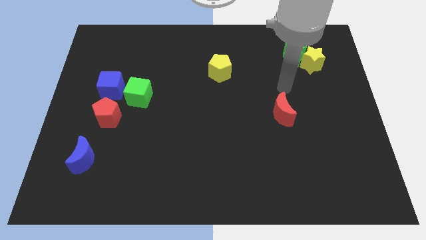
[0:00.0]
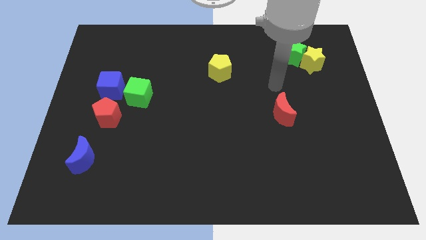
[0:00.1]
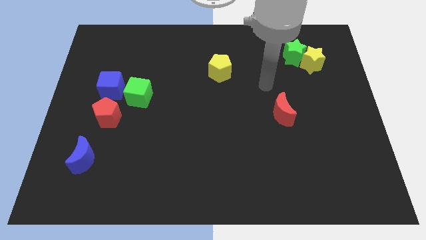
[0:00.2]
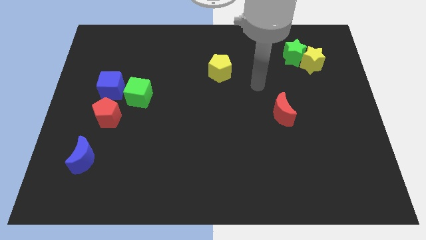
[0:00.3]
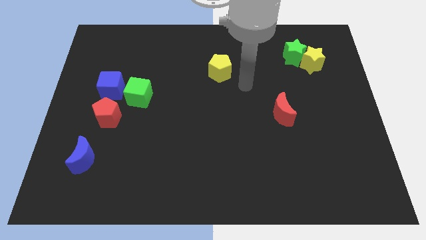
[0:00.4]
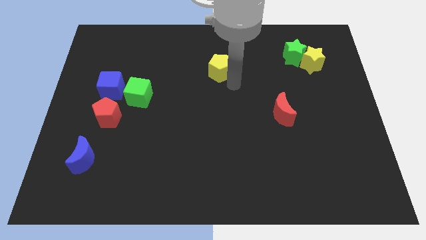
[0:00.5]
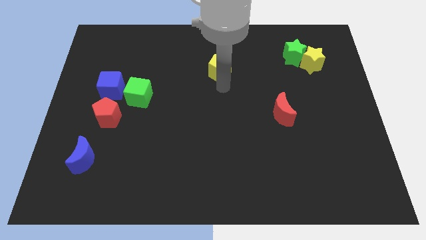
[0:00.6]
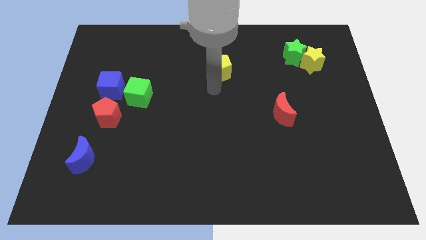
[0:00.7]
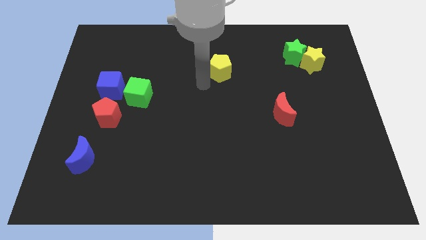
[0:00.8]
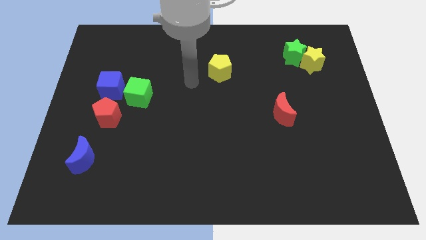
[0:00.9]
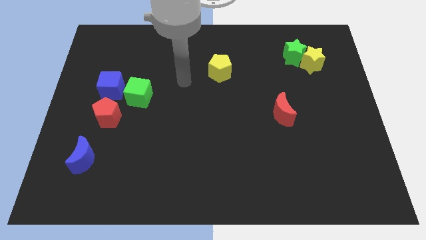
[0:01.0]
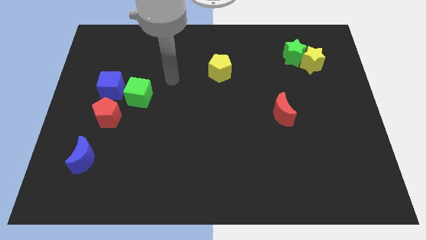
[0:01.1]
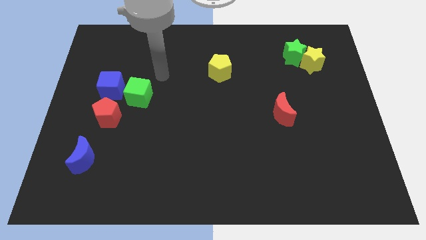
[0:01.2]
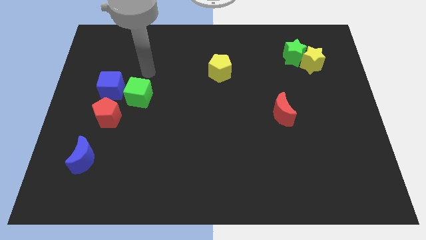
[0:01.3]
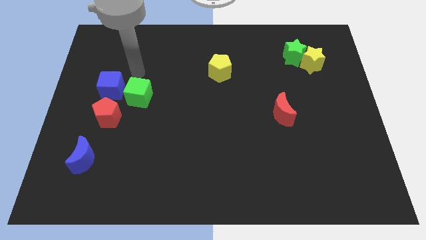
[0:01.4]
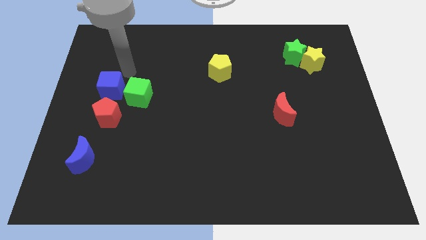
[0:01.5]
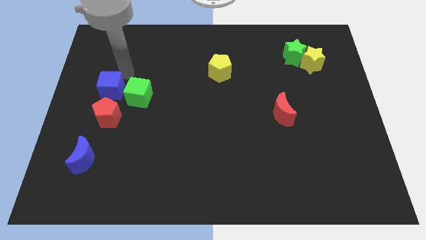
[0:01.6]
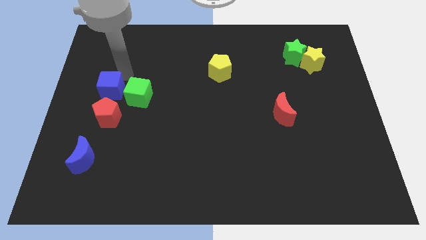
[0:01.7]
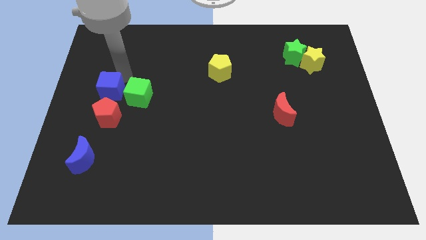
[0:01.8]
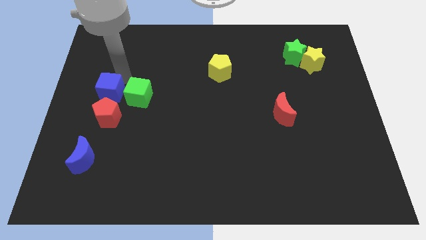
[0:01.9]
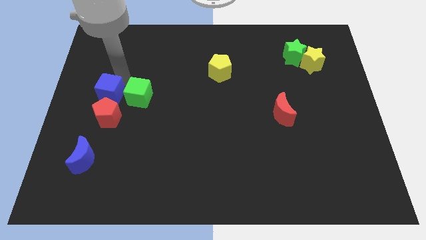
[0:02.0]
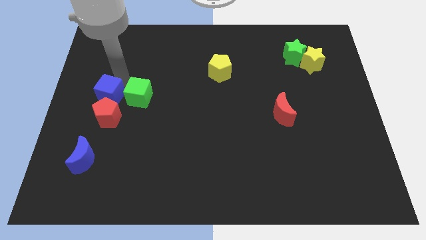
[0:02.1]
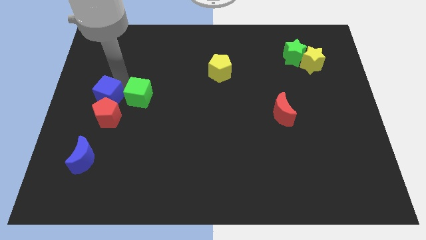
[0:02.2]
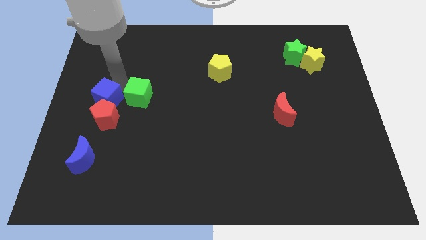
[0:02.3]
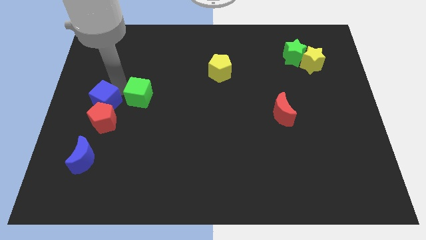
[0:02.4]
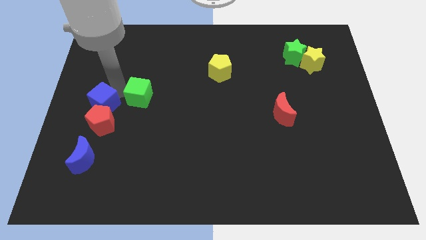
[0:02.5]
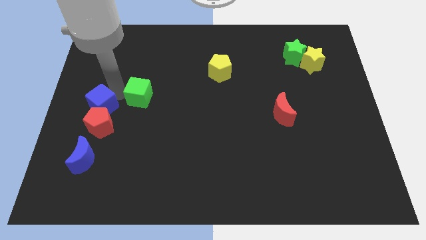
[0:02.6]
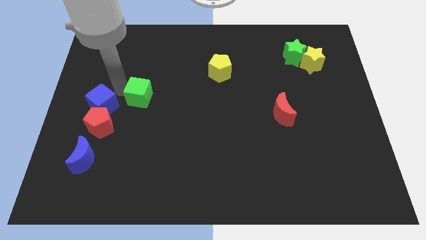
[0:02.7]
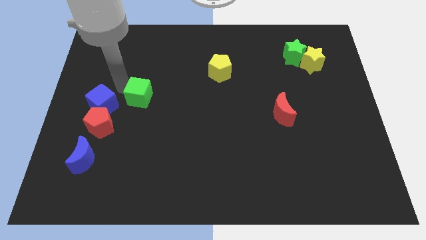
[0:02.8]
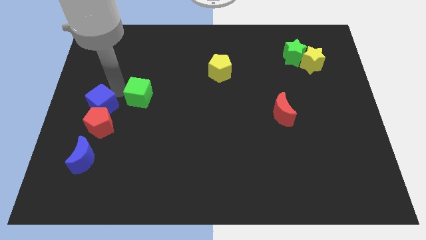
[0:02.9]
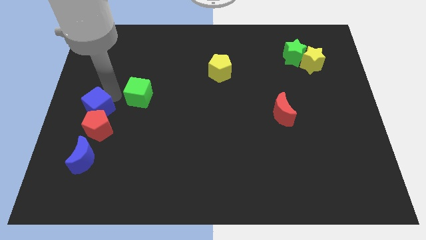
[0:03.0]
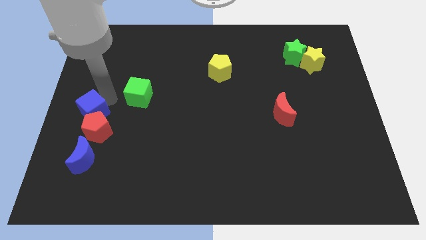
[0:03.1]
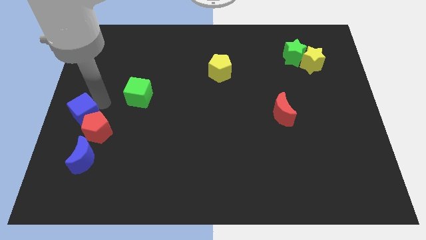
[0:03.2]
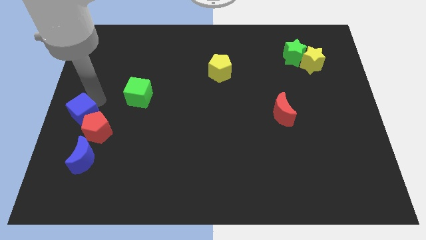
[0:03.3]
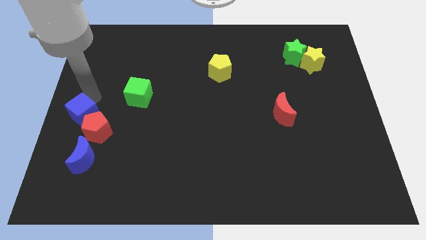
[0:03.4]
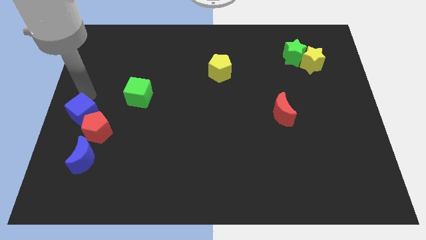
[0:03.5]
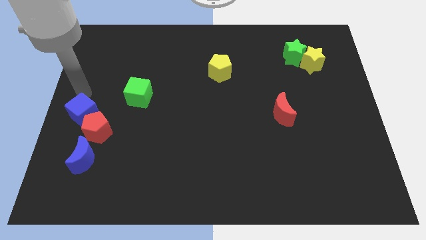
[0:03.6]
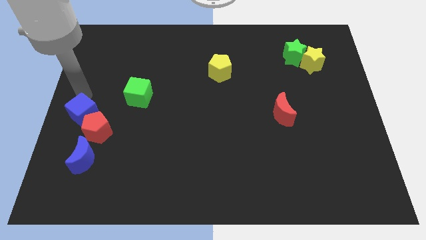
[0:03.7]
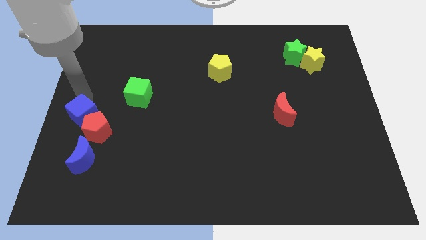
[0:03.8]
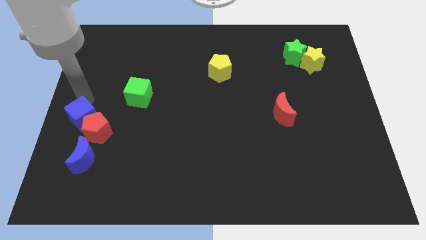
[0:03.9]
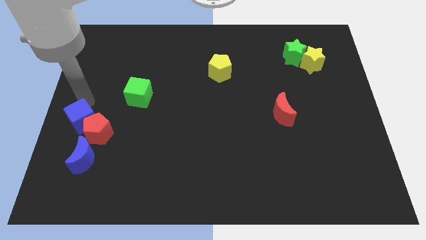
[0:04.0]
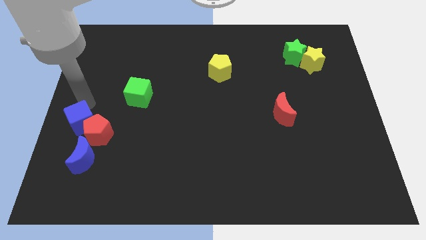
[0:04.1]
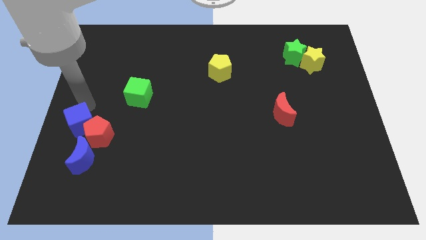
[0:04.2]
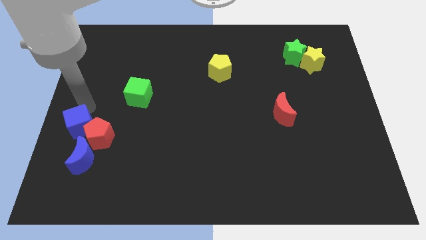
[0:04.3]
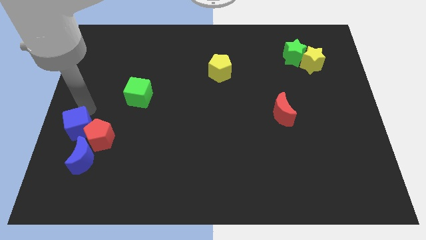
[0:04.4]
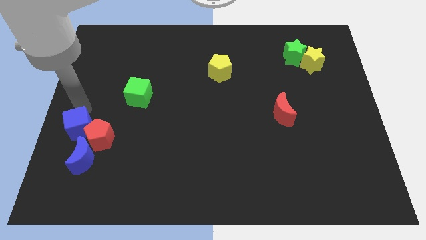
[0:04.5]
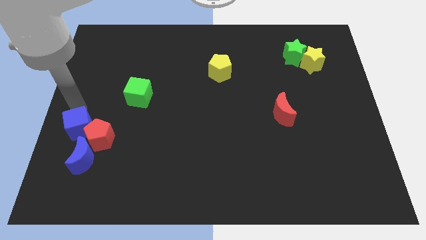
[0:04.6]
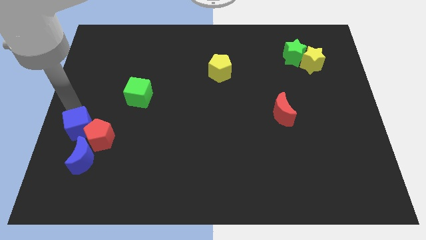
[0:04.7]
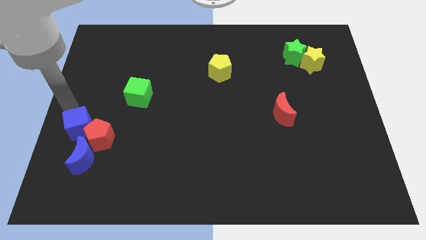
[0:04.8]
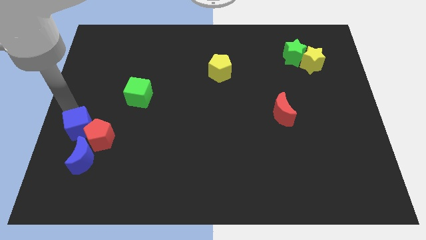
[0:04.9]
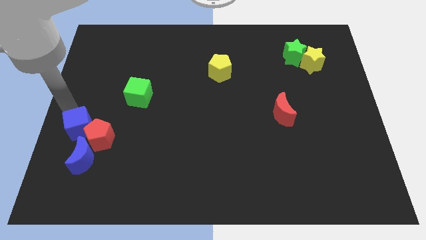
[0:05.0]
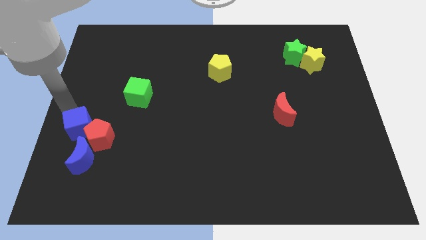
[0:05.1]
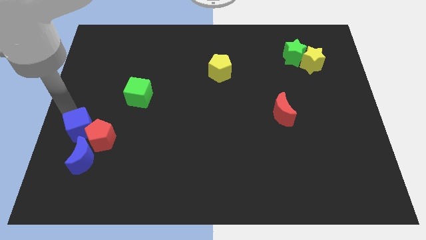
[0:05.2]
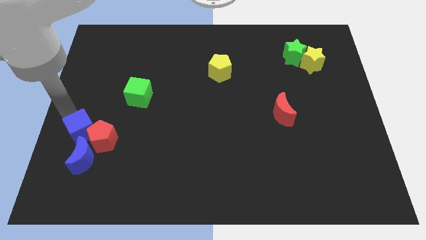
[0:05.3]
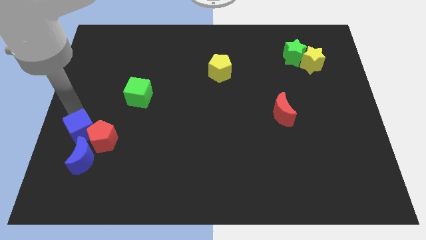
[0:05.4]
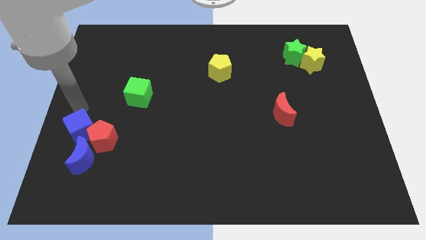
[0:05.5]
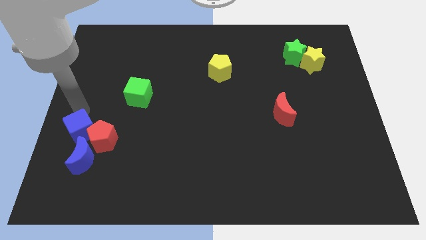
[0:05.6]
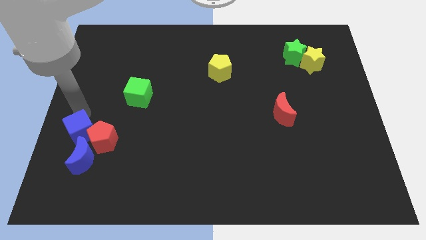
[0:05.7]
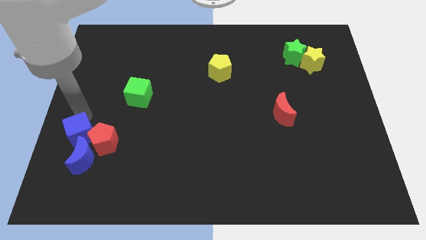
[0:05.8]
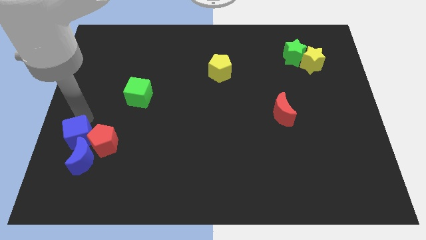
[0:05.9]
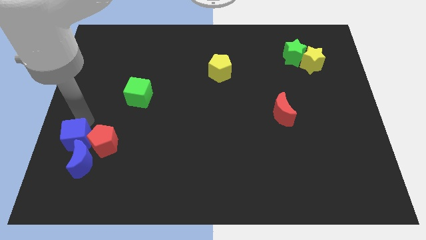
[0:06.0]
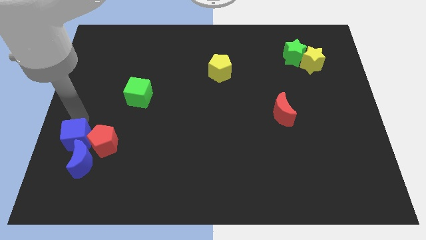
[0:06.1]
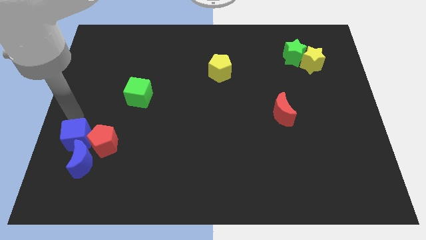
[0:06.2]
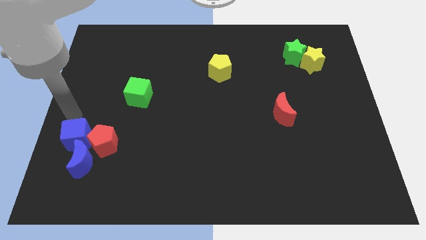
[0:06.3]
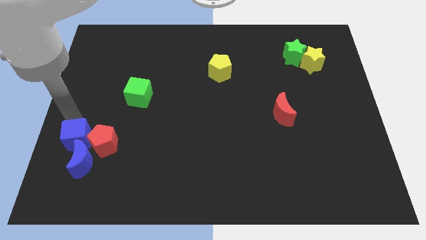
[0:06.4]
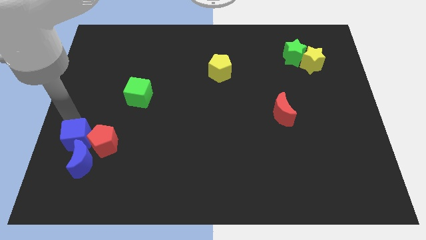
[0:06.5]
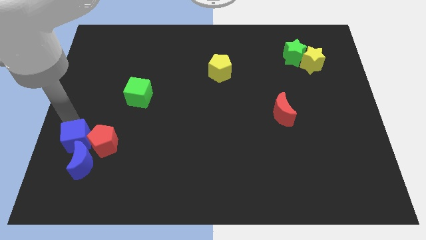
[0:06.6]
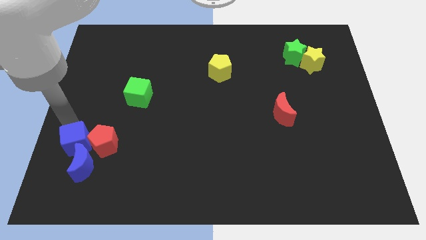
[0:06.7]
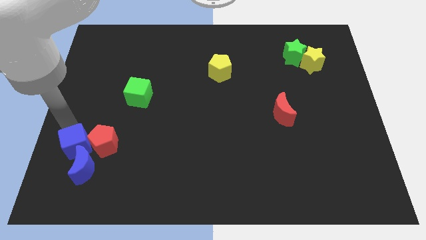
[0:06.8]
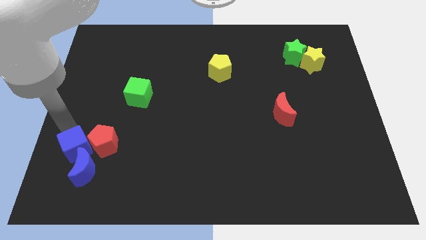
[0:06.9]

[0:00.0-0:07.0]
push the blue cube towards the blue moon

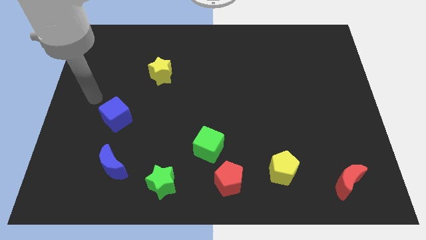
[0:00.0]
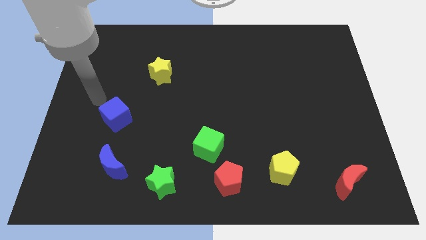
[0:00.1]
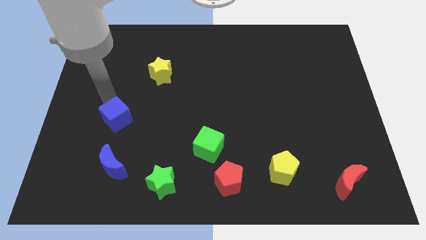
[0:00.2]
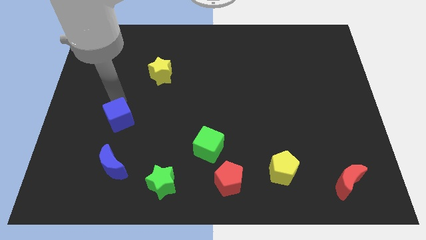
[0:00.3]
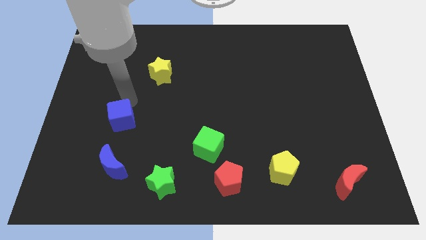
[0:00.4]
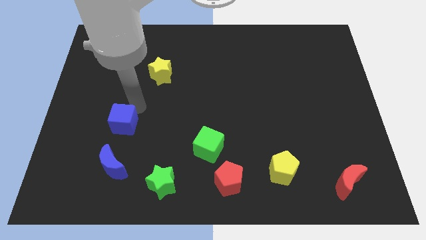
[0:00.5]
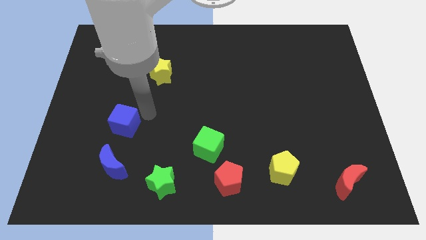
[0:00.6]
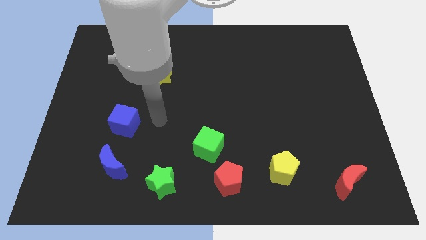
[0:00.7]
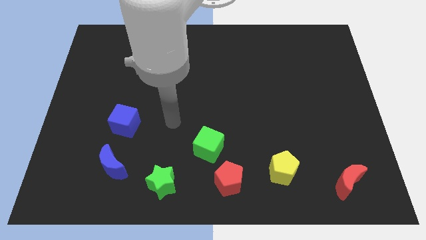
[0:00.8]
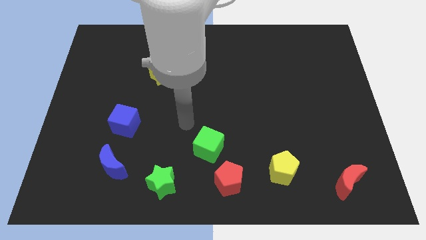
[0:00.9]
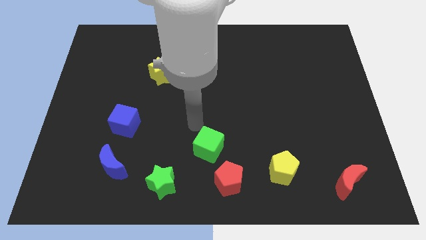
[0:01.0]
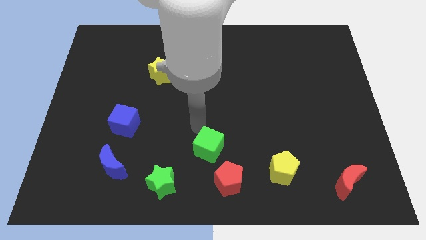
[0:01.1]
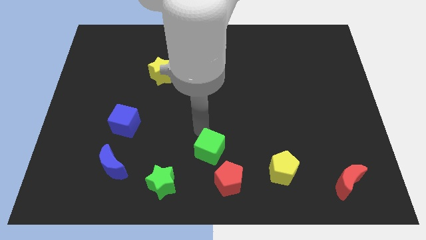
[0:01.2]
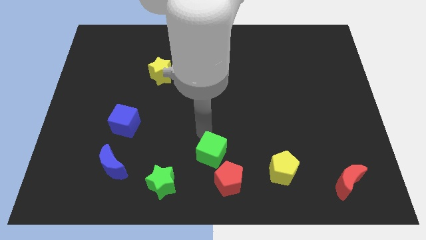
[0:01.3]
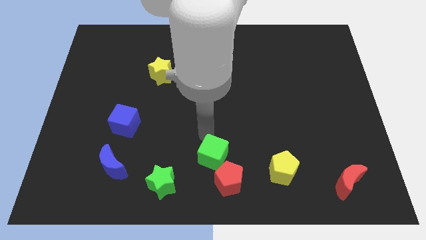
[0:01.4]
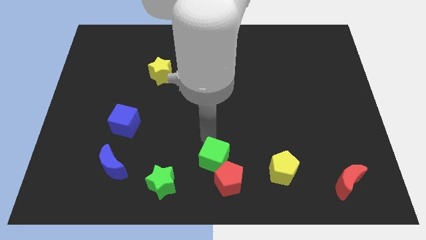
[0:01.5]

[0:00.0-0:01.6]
move the green cube towards the red pentagon
